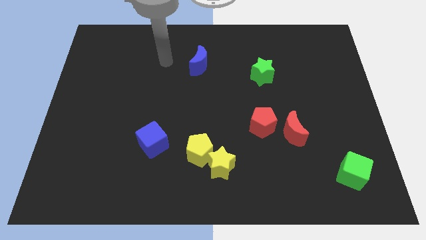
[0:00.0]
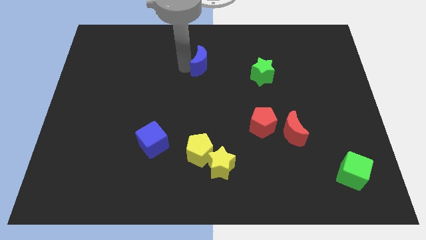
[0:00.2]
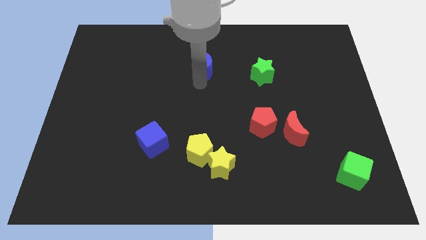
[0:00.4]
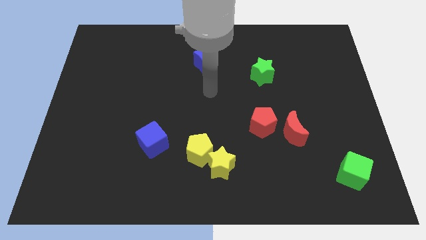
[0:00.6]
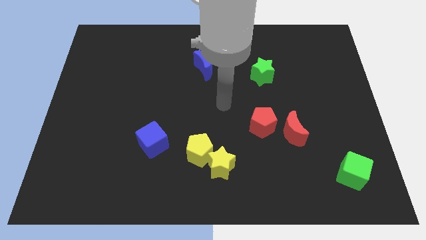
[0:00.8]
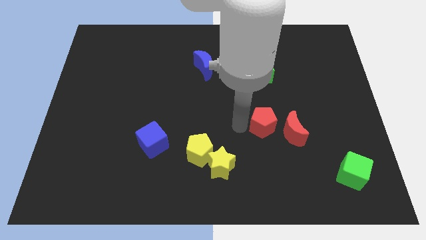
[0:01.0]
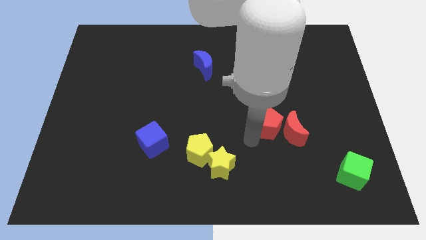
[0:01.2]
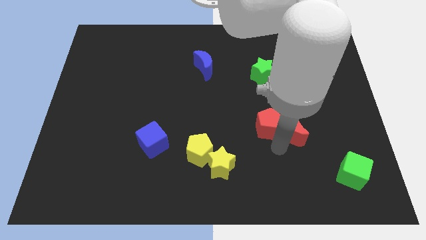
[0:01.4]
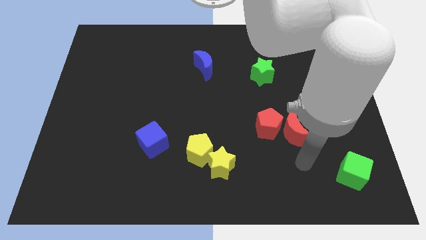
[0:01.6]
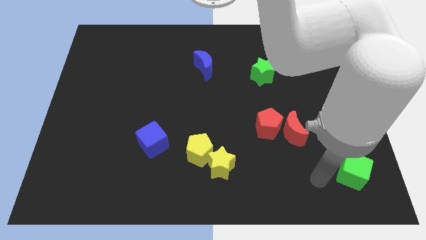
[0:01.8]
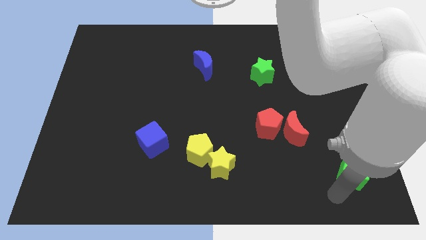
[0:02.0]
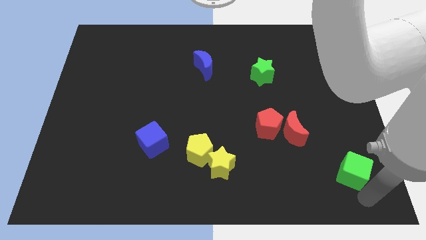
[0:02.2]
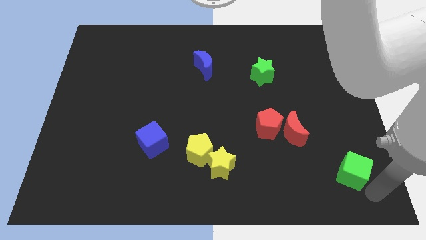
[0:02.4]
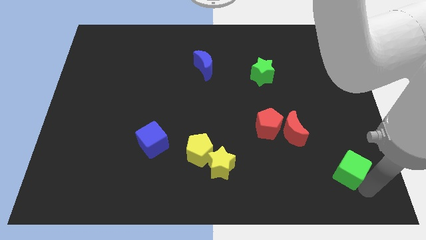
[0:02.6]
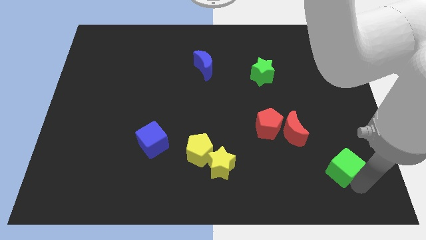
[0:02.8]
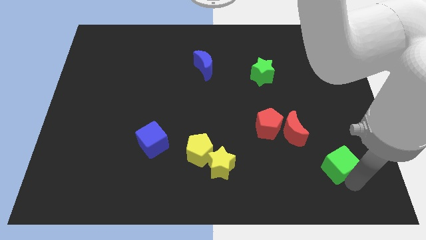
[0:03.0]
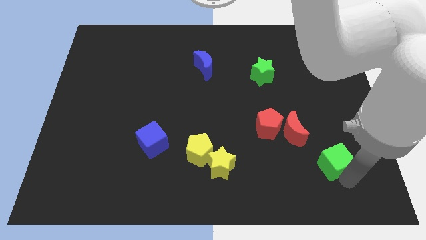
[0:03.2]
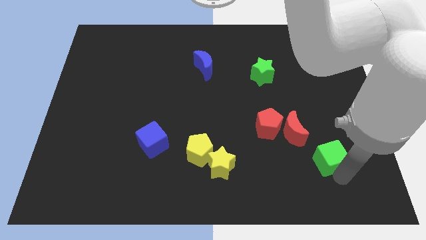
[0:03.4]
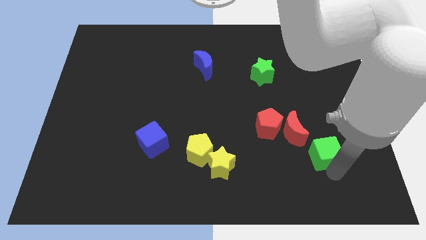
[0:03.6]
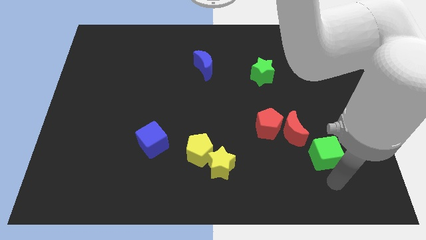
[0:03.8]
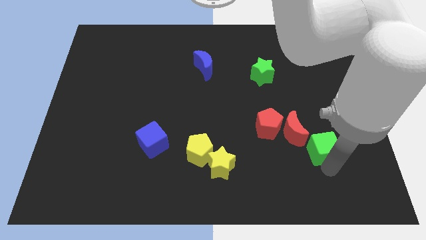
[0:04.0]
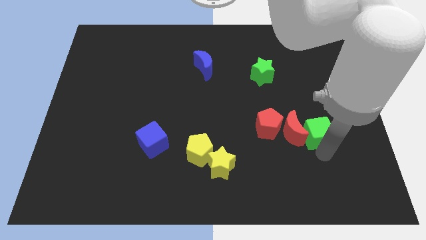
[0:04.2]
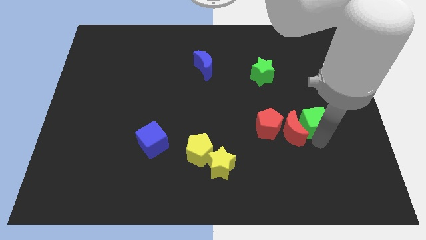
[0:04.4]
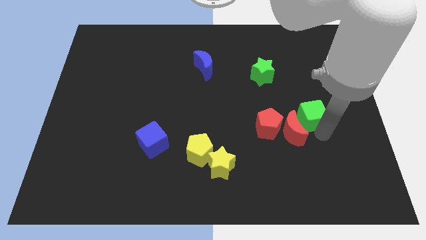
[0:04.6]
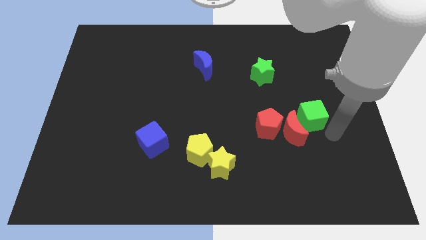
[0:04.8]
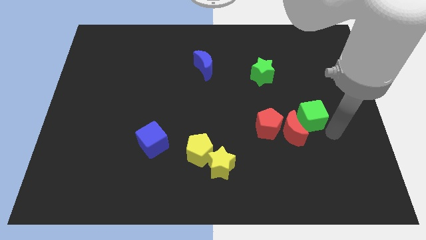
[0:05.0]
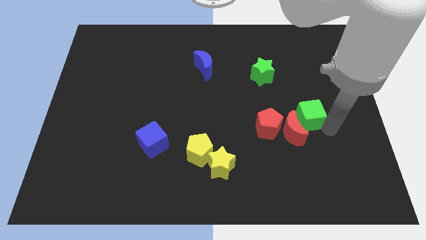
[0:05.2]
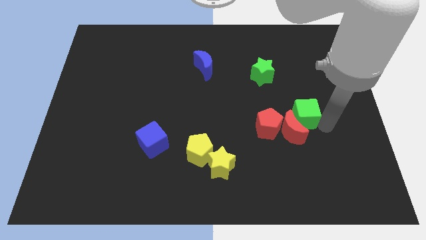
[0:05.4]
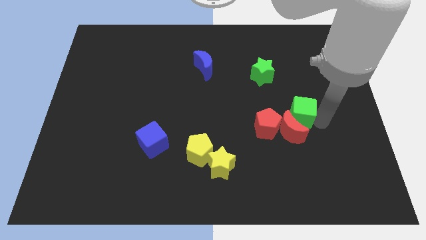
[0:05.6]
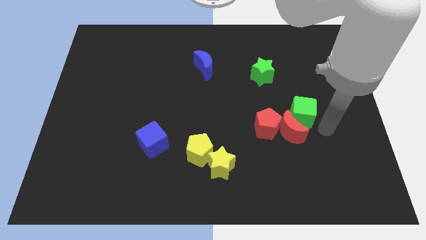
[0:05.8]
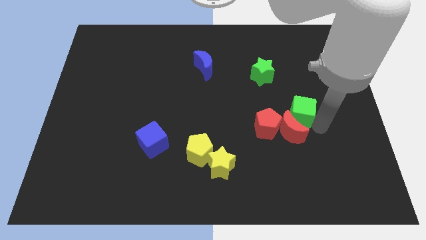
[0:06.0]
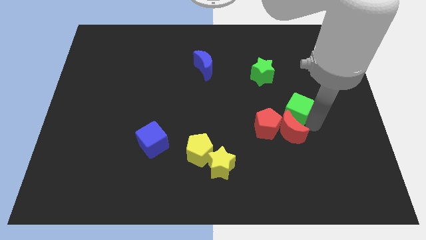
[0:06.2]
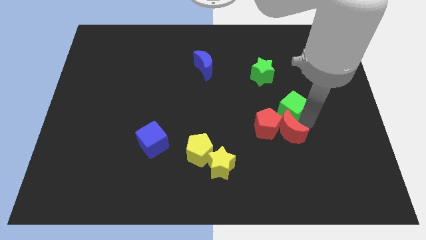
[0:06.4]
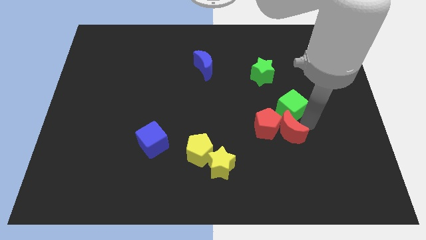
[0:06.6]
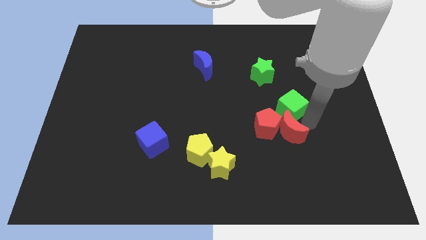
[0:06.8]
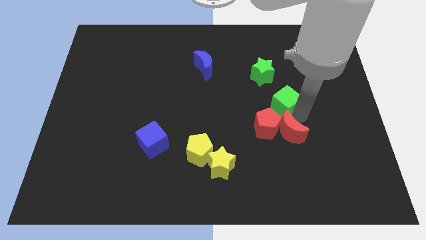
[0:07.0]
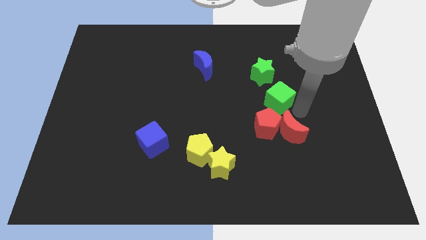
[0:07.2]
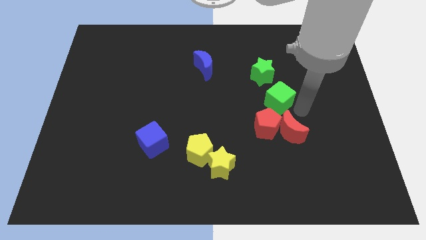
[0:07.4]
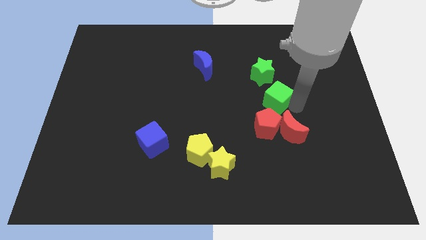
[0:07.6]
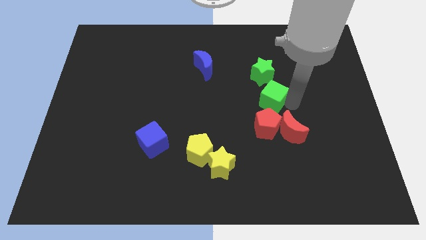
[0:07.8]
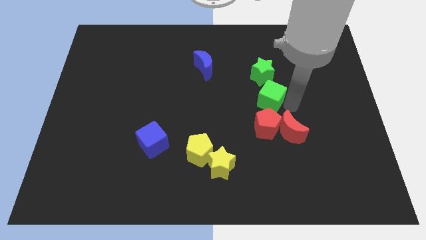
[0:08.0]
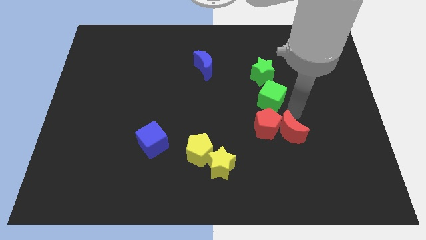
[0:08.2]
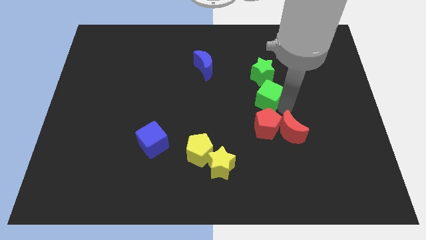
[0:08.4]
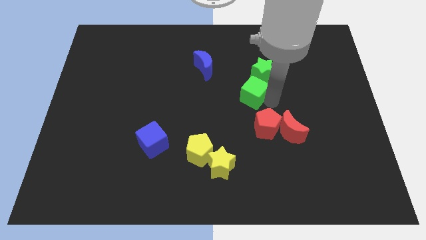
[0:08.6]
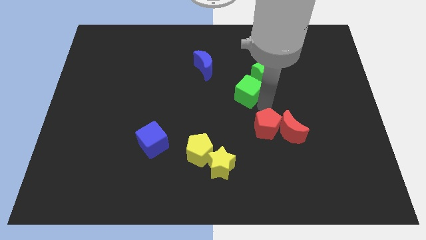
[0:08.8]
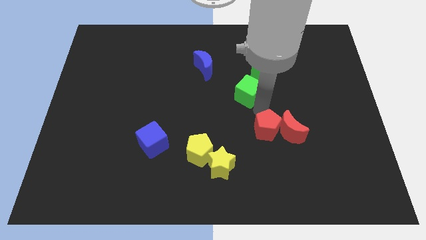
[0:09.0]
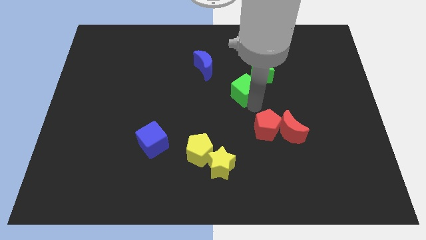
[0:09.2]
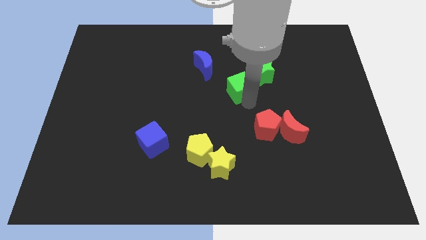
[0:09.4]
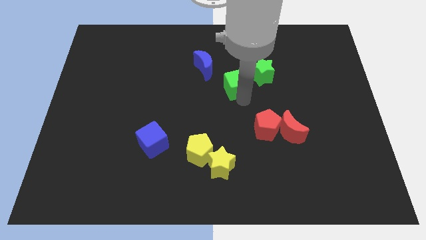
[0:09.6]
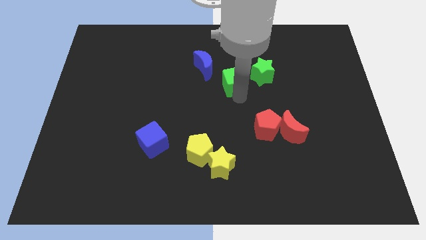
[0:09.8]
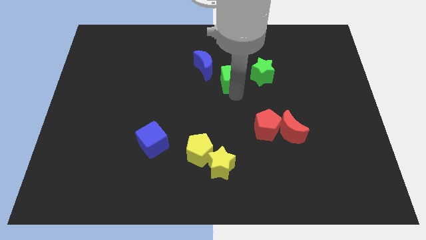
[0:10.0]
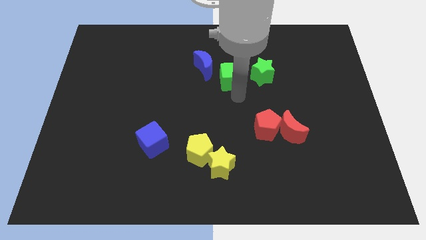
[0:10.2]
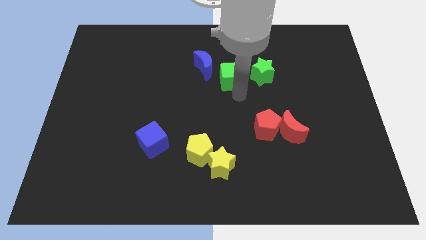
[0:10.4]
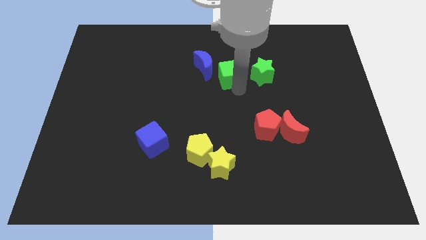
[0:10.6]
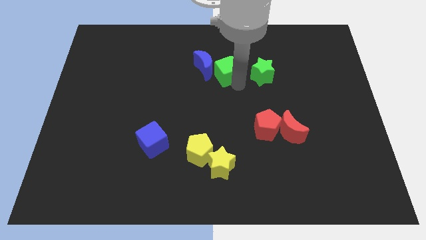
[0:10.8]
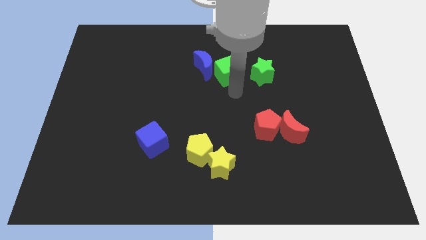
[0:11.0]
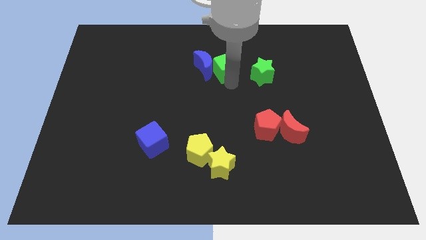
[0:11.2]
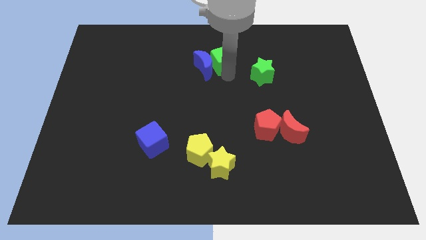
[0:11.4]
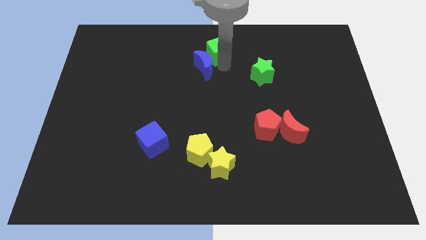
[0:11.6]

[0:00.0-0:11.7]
put the green cube to the top side

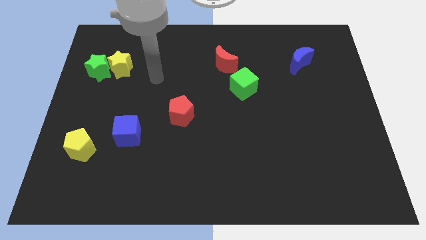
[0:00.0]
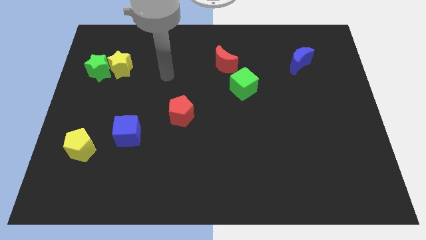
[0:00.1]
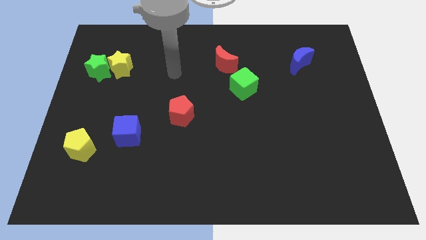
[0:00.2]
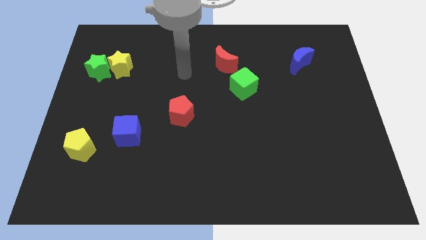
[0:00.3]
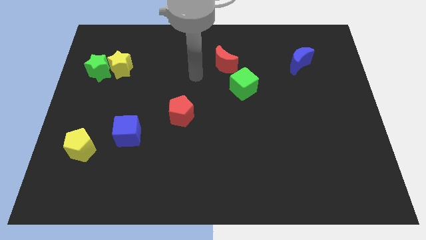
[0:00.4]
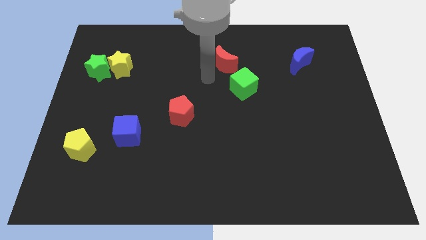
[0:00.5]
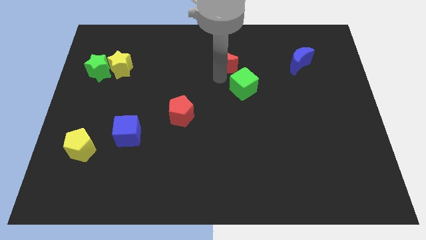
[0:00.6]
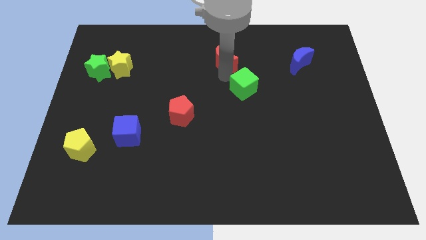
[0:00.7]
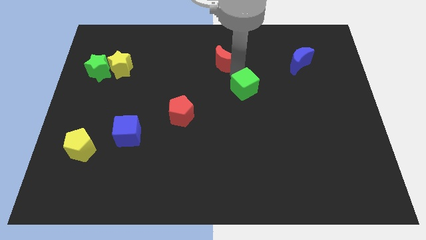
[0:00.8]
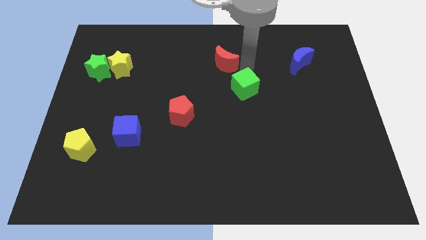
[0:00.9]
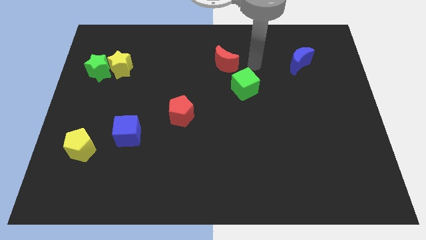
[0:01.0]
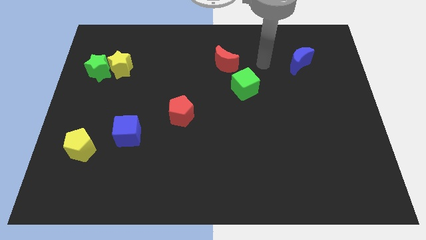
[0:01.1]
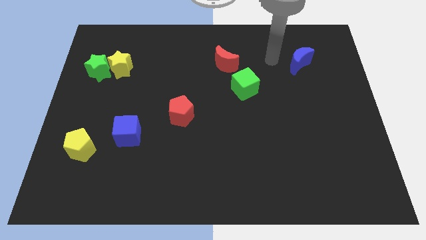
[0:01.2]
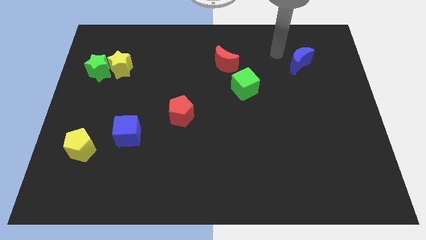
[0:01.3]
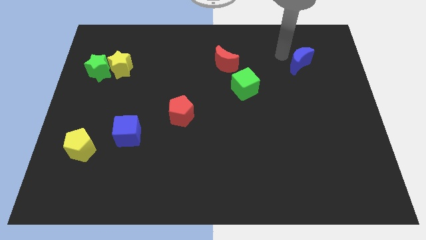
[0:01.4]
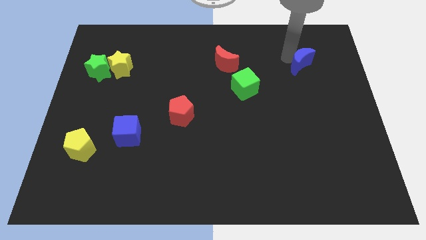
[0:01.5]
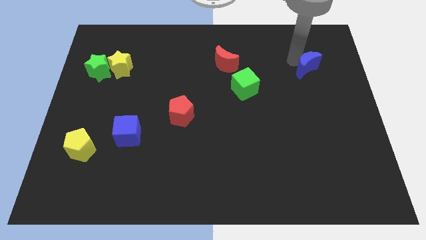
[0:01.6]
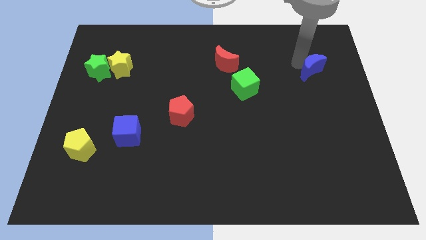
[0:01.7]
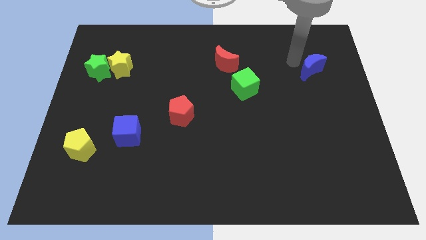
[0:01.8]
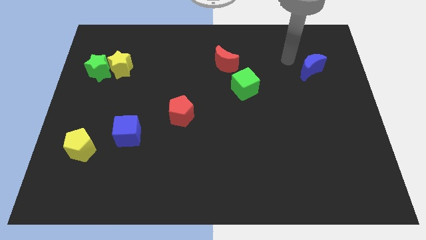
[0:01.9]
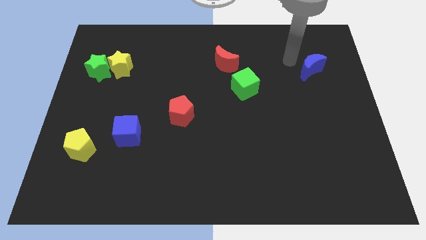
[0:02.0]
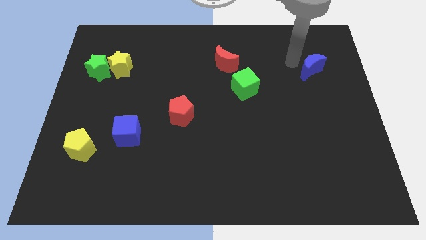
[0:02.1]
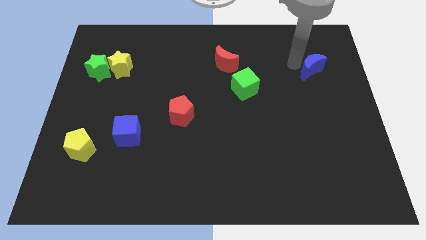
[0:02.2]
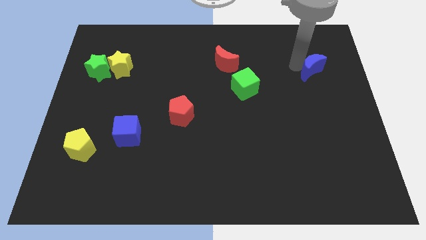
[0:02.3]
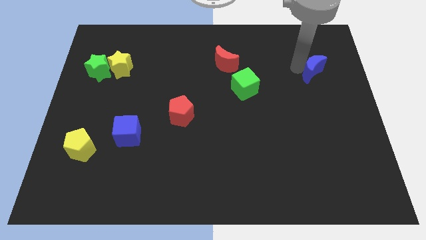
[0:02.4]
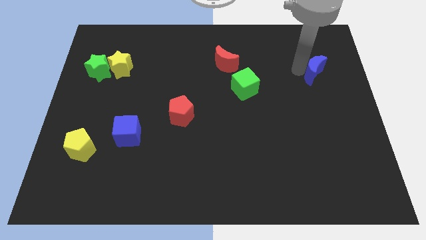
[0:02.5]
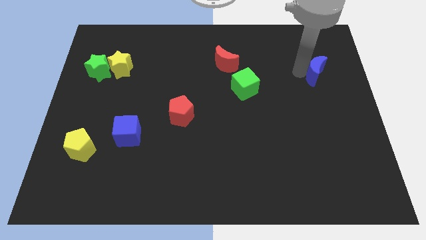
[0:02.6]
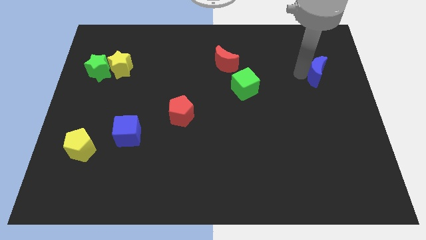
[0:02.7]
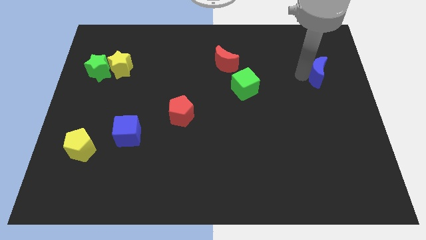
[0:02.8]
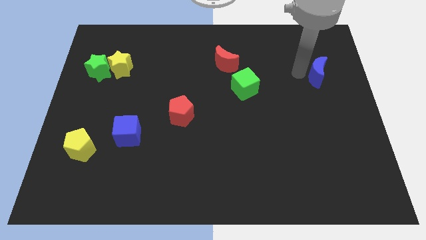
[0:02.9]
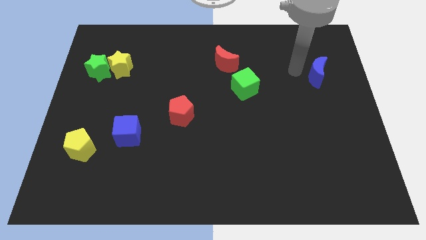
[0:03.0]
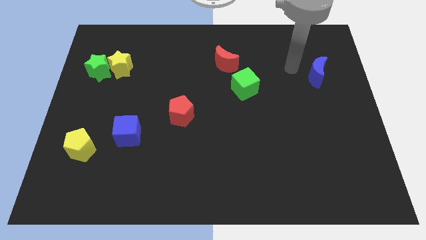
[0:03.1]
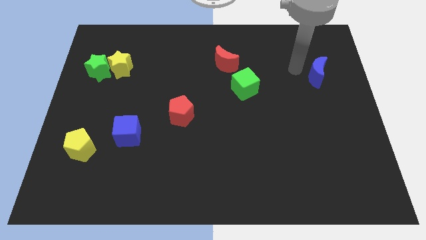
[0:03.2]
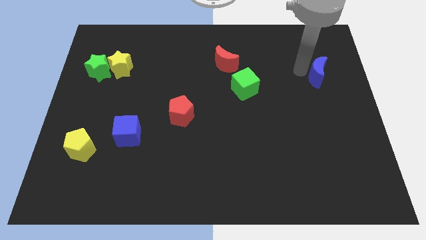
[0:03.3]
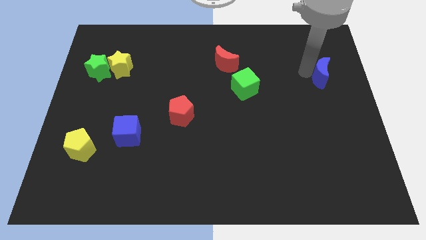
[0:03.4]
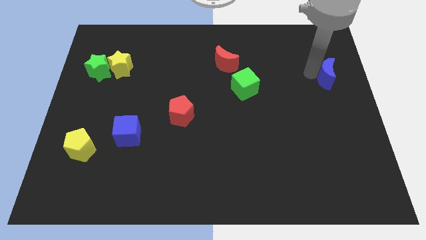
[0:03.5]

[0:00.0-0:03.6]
slide the blue moon to the center right
